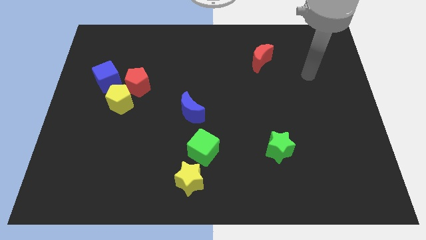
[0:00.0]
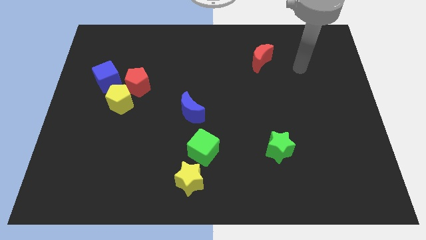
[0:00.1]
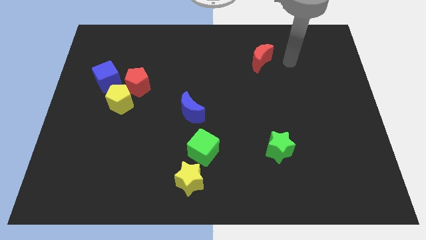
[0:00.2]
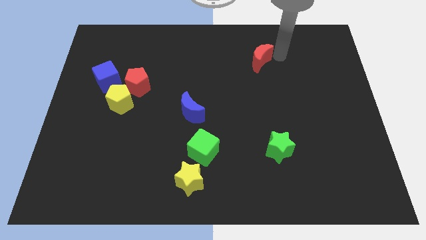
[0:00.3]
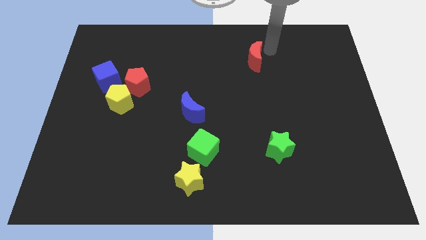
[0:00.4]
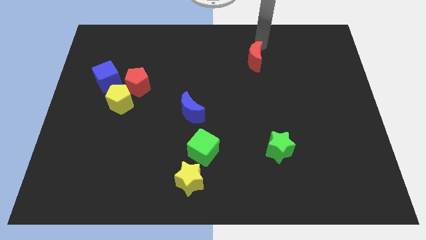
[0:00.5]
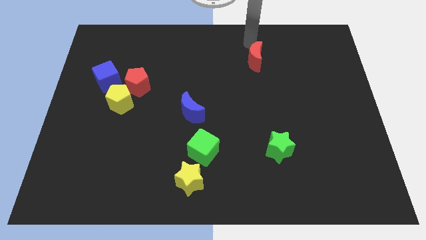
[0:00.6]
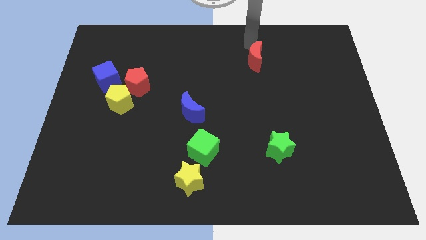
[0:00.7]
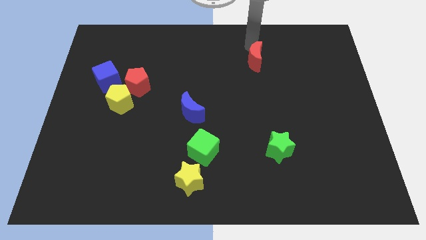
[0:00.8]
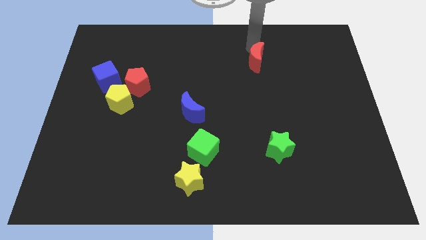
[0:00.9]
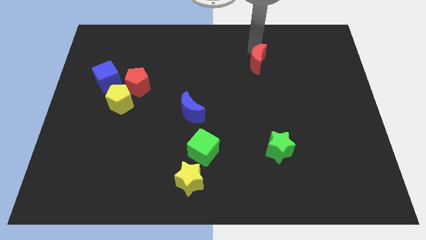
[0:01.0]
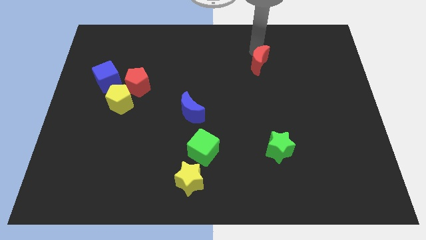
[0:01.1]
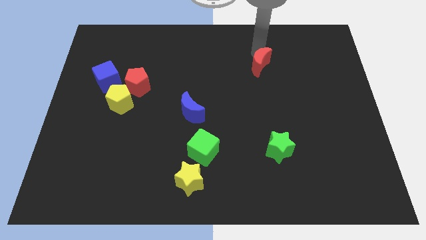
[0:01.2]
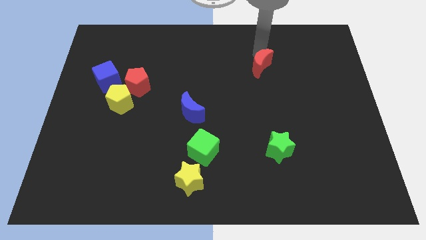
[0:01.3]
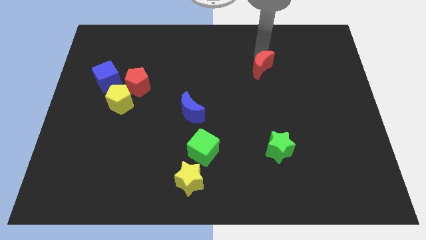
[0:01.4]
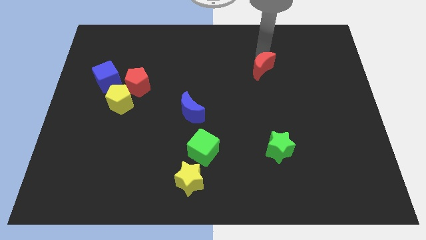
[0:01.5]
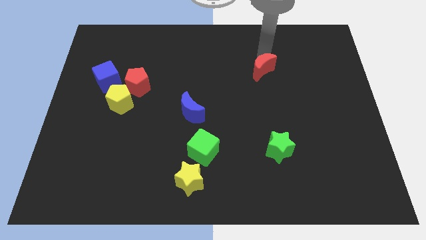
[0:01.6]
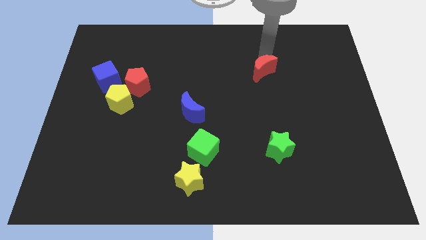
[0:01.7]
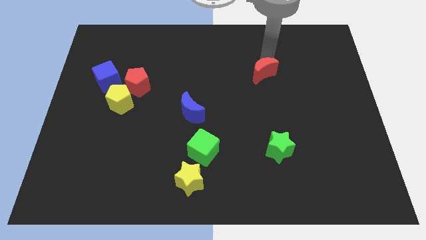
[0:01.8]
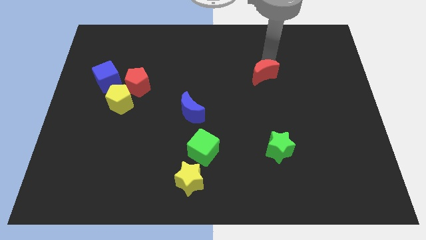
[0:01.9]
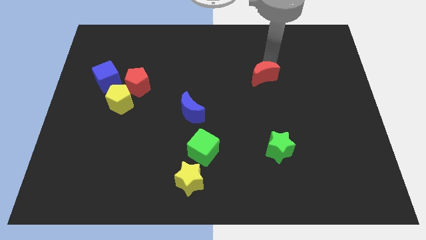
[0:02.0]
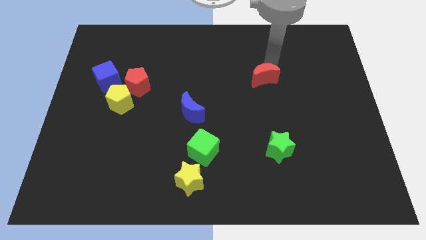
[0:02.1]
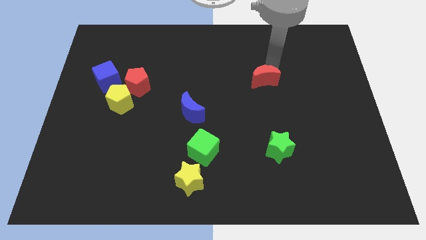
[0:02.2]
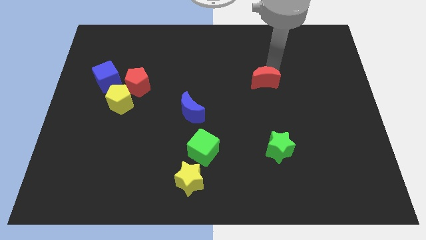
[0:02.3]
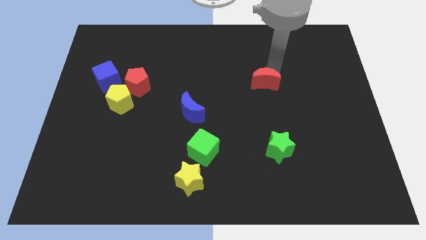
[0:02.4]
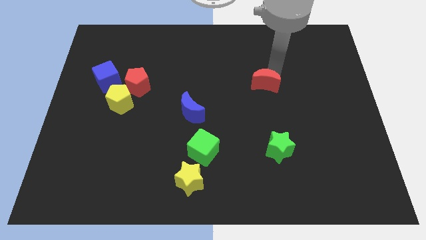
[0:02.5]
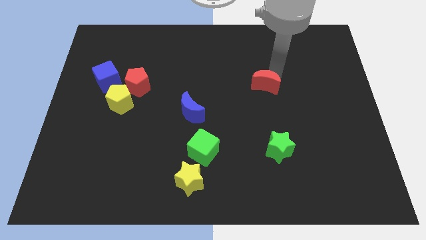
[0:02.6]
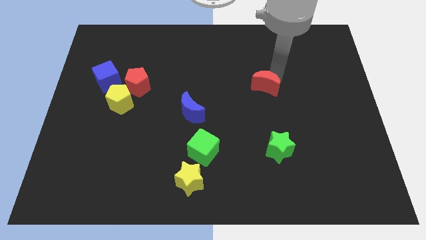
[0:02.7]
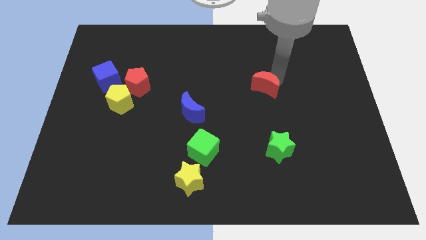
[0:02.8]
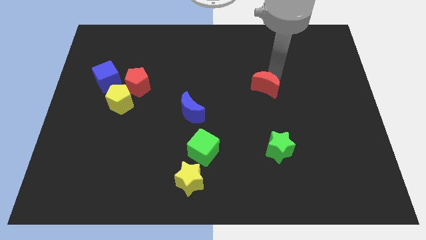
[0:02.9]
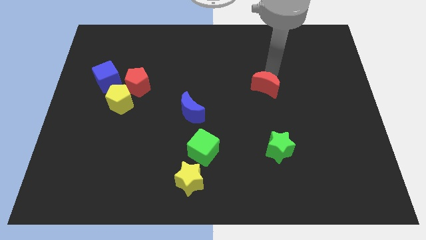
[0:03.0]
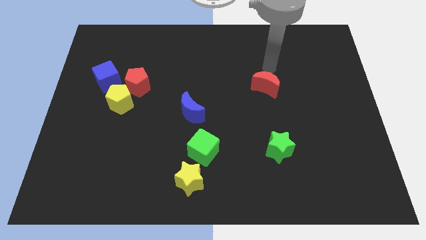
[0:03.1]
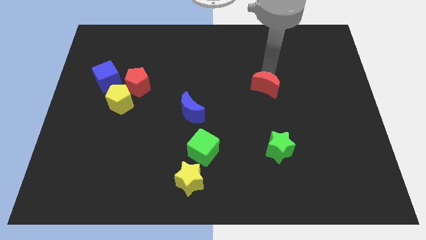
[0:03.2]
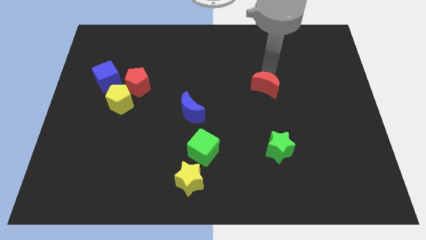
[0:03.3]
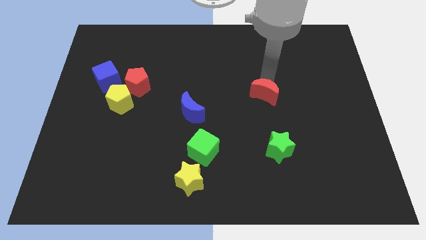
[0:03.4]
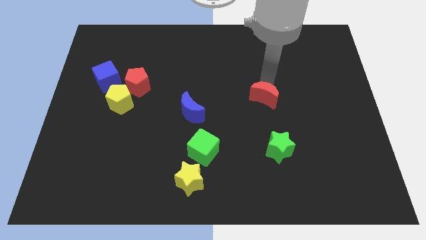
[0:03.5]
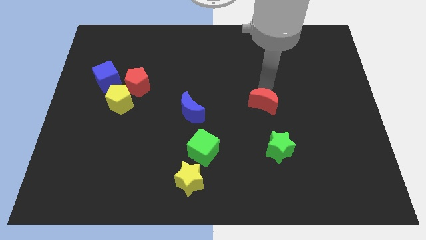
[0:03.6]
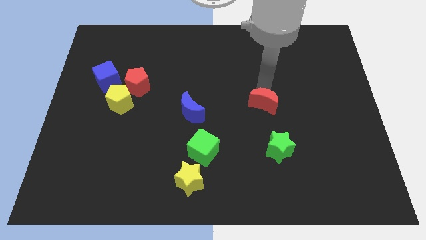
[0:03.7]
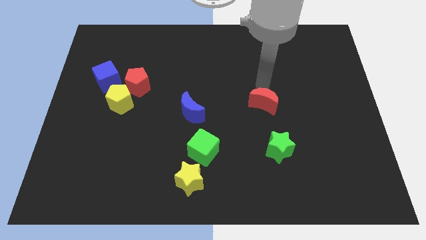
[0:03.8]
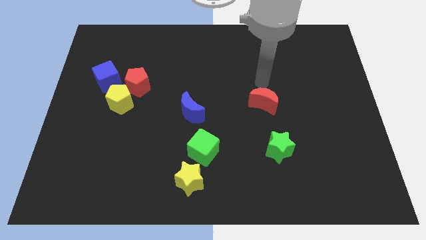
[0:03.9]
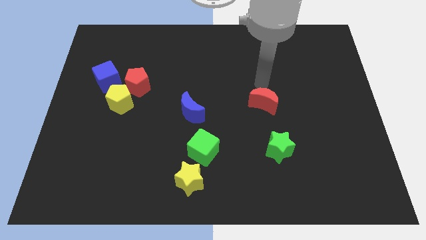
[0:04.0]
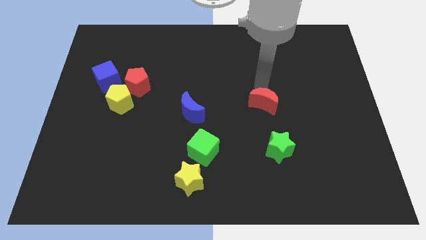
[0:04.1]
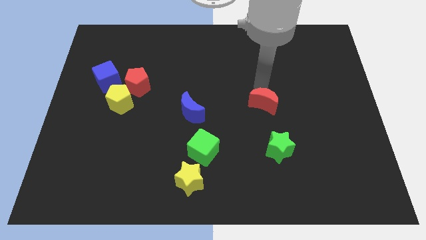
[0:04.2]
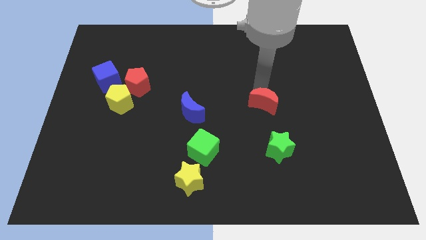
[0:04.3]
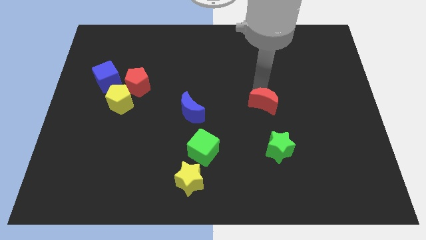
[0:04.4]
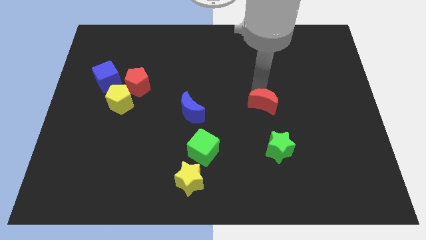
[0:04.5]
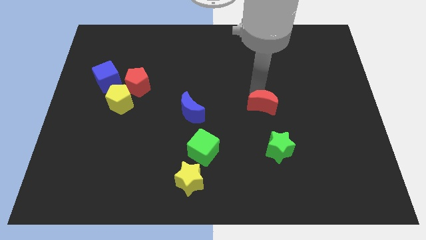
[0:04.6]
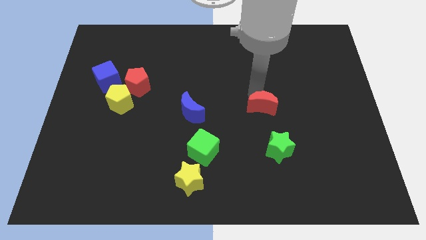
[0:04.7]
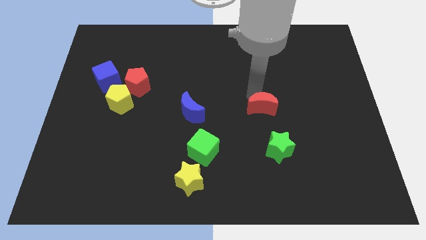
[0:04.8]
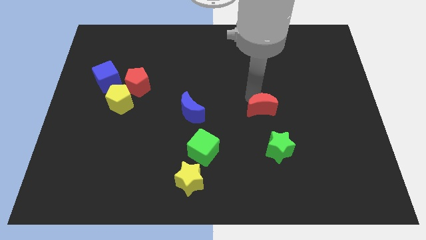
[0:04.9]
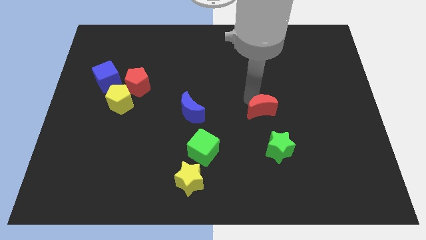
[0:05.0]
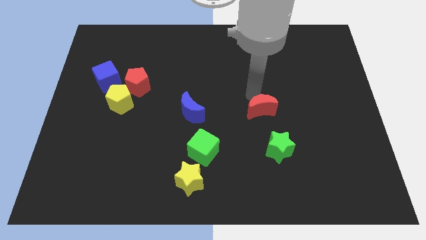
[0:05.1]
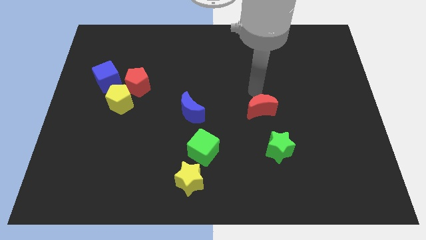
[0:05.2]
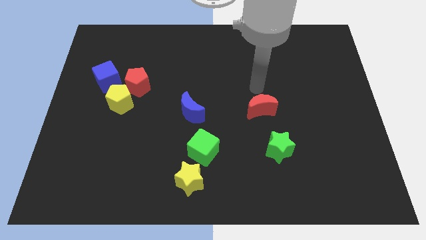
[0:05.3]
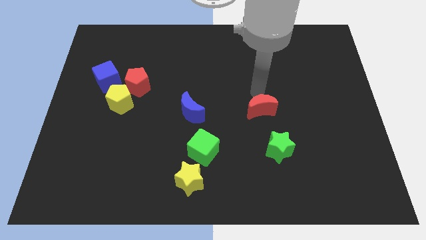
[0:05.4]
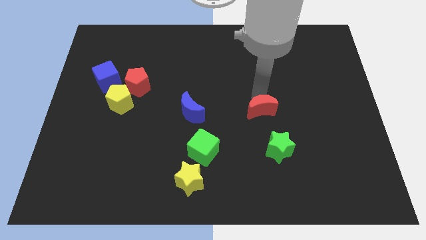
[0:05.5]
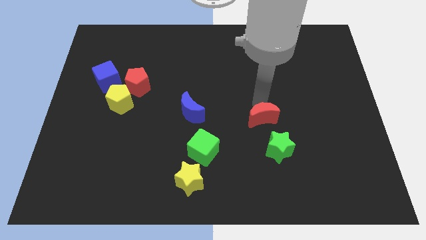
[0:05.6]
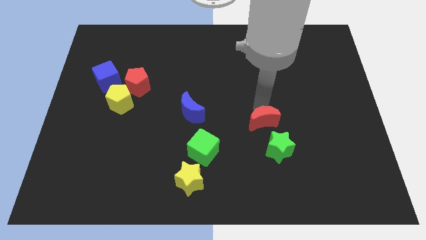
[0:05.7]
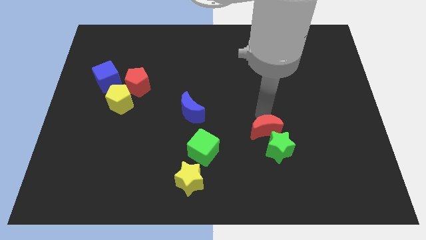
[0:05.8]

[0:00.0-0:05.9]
move the red moon downwards

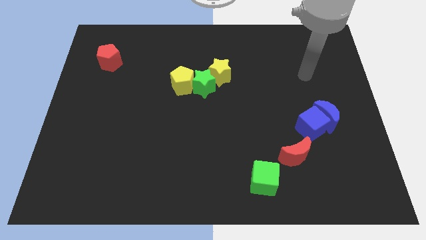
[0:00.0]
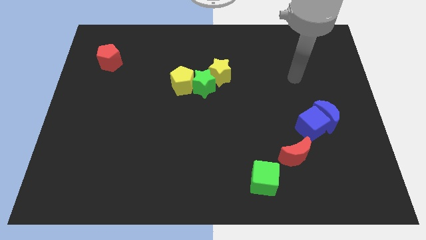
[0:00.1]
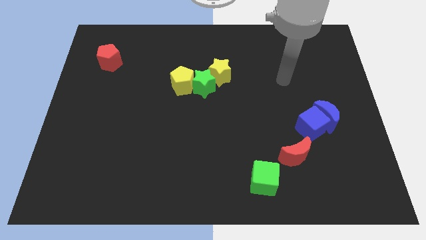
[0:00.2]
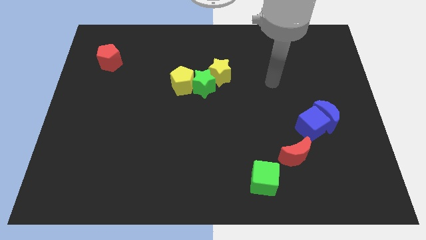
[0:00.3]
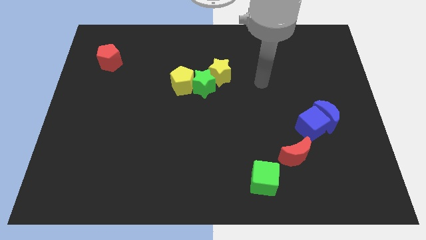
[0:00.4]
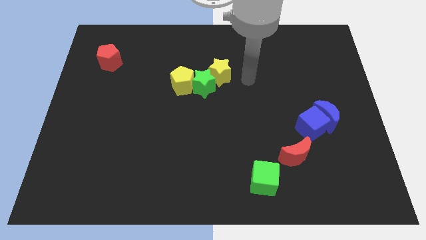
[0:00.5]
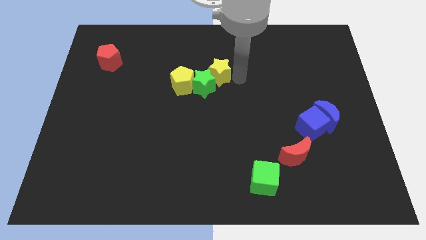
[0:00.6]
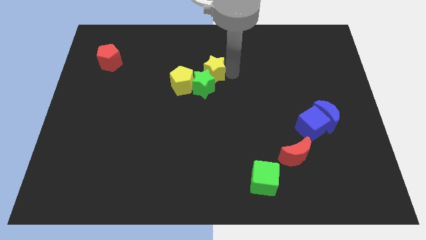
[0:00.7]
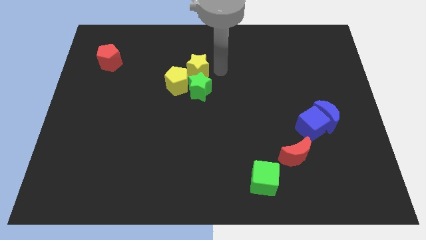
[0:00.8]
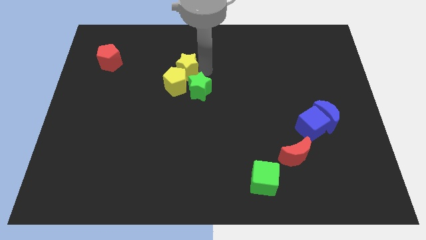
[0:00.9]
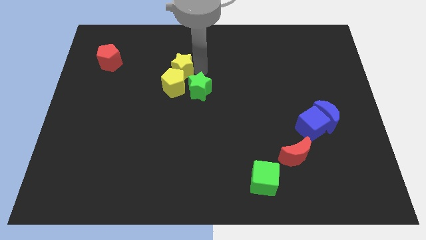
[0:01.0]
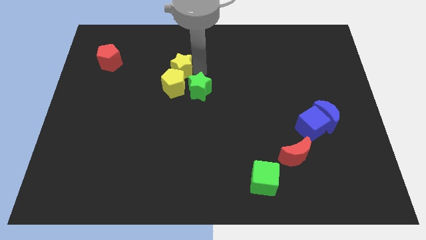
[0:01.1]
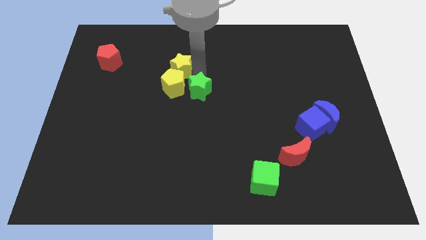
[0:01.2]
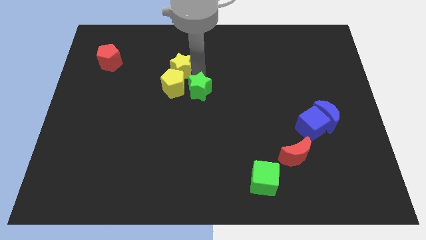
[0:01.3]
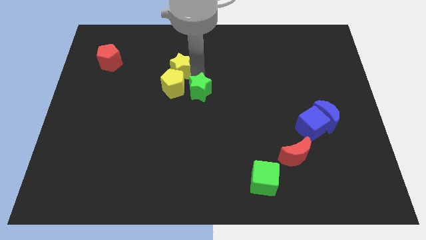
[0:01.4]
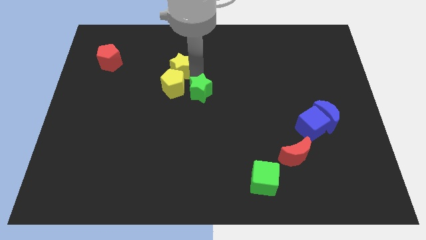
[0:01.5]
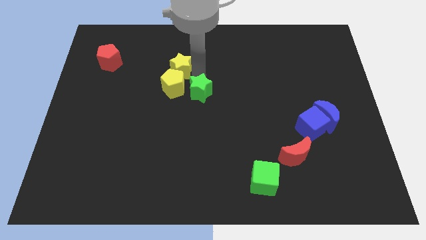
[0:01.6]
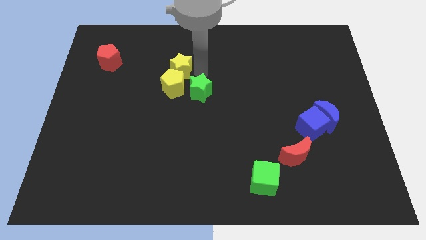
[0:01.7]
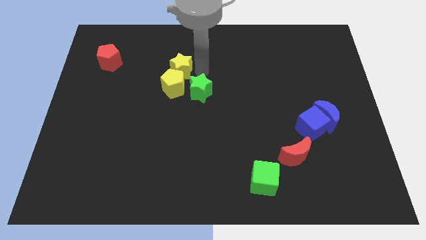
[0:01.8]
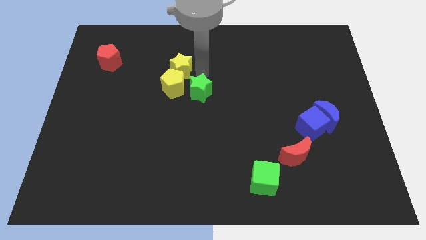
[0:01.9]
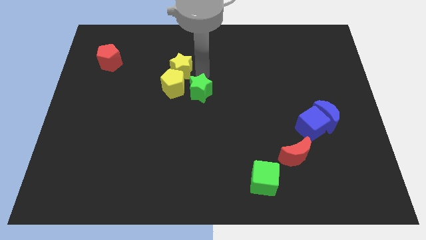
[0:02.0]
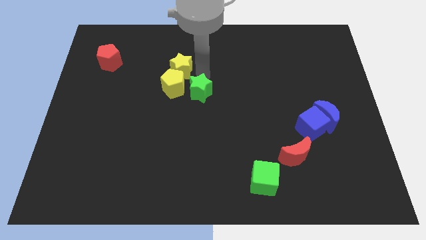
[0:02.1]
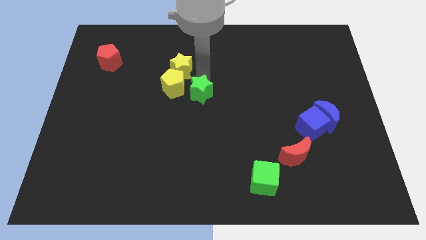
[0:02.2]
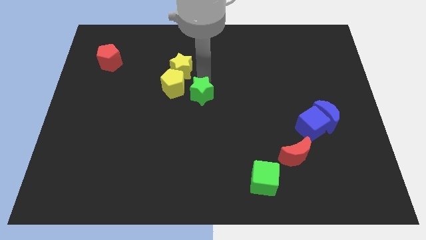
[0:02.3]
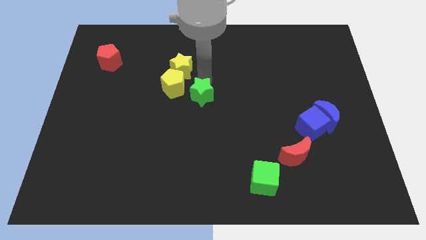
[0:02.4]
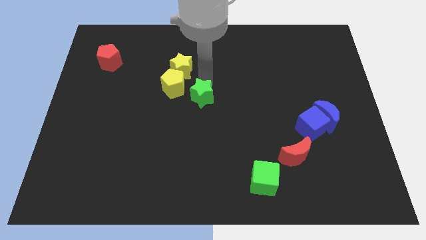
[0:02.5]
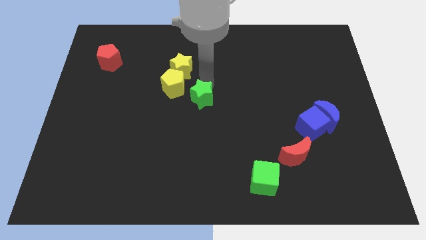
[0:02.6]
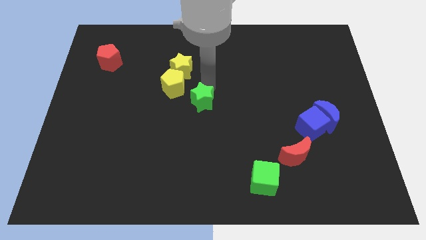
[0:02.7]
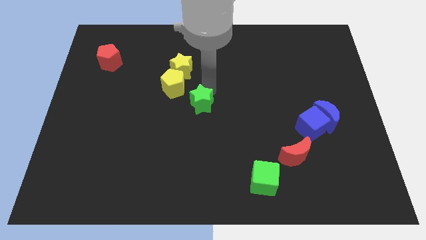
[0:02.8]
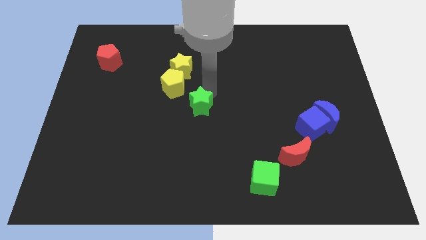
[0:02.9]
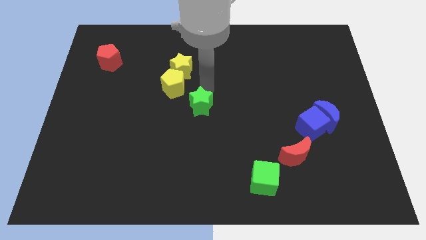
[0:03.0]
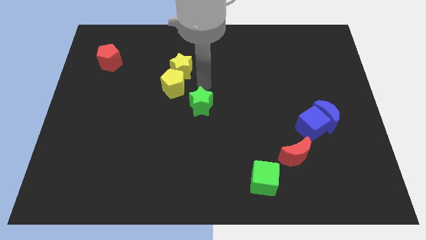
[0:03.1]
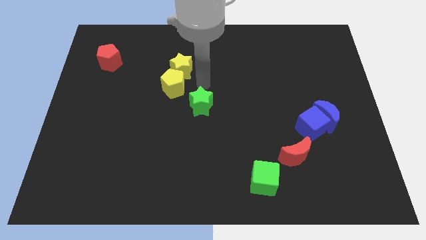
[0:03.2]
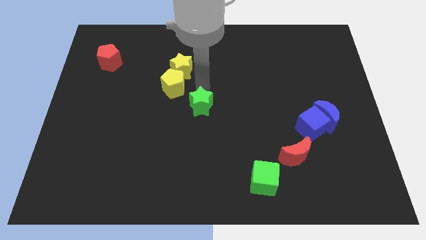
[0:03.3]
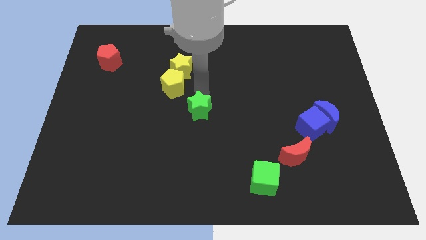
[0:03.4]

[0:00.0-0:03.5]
slightly slide the green star down
